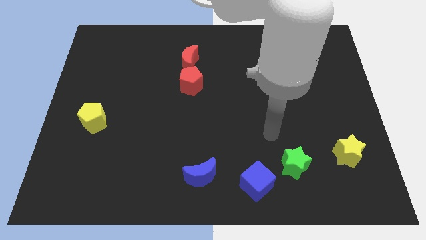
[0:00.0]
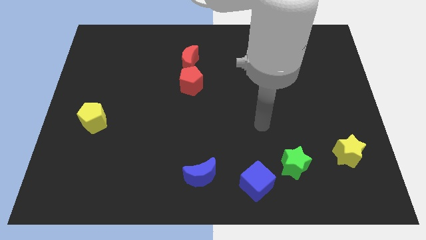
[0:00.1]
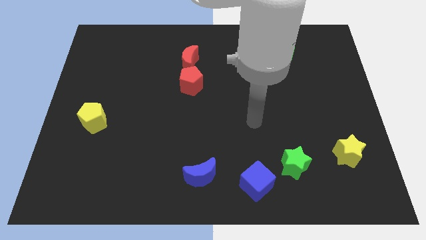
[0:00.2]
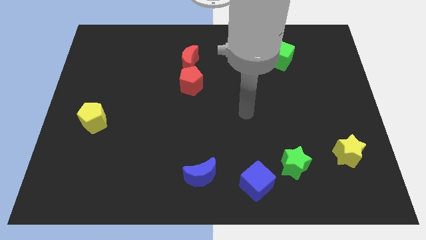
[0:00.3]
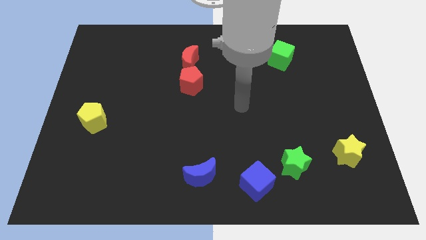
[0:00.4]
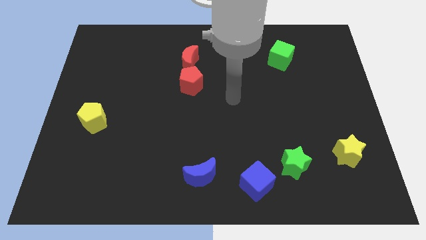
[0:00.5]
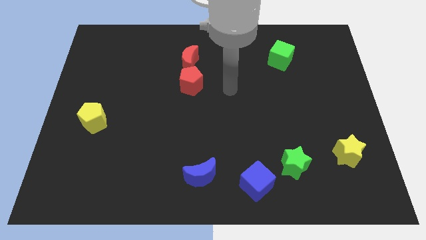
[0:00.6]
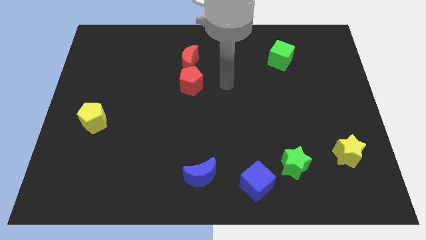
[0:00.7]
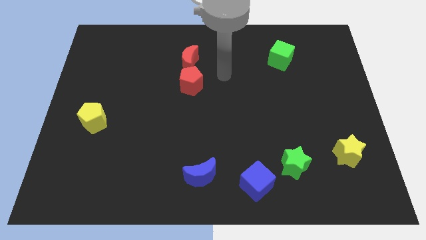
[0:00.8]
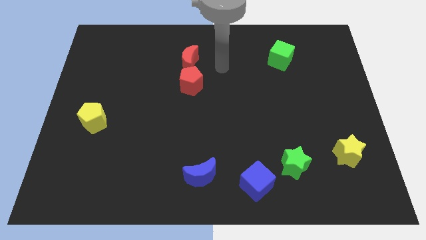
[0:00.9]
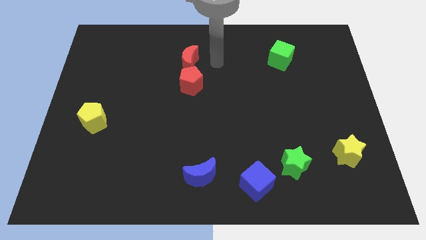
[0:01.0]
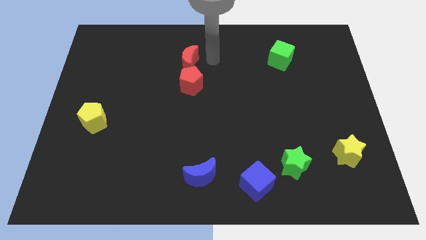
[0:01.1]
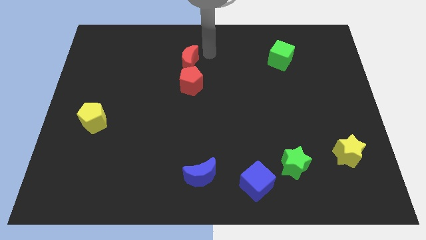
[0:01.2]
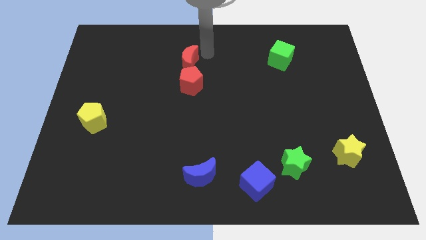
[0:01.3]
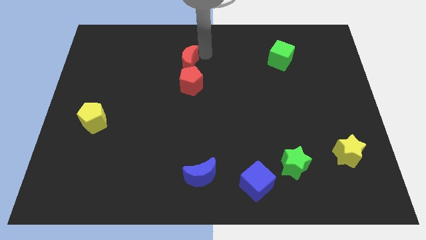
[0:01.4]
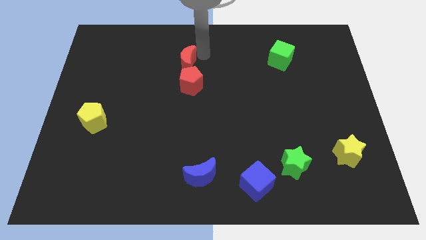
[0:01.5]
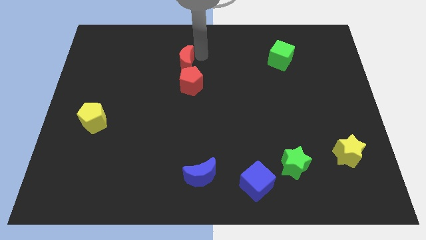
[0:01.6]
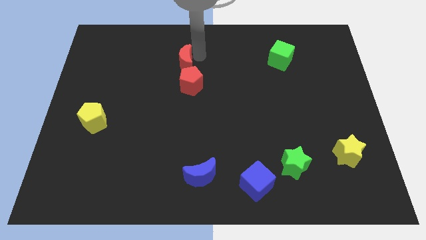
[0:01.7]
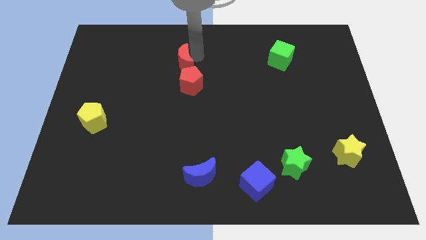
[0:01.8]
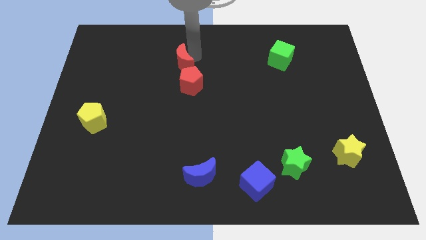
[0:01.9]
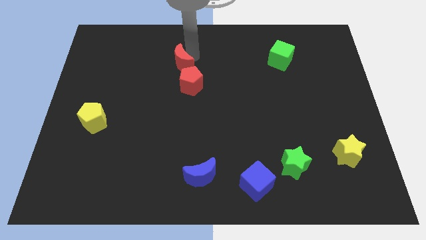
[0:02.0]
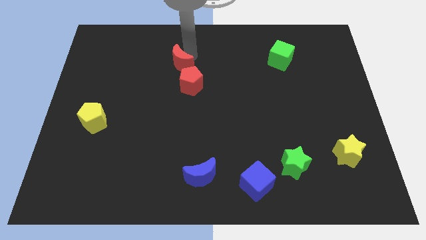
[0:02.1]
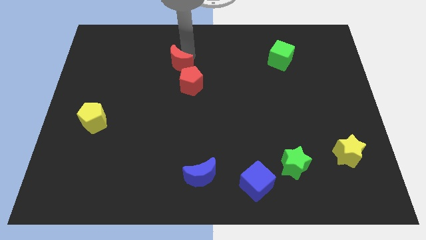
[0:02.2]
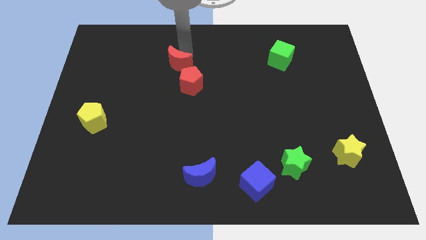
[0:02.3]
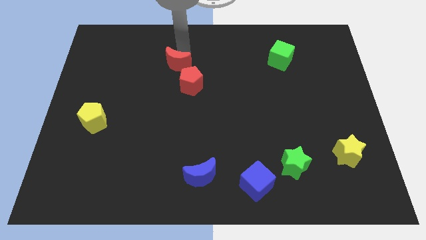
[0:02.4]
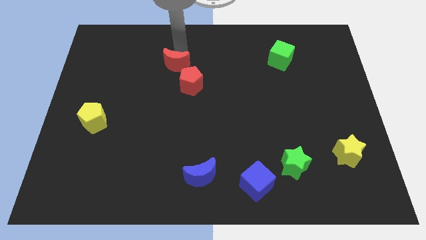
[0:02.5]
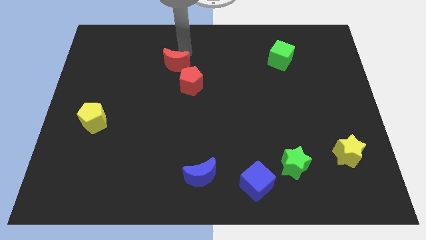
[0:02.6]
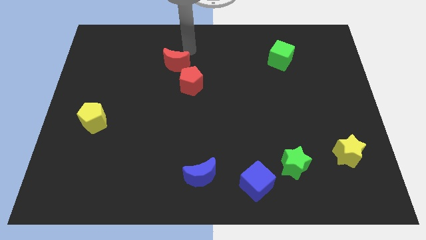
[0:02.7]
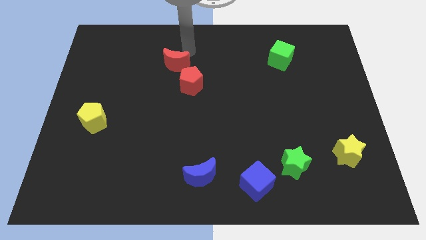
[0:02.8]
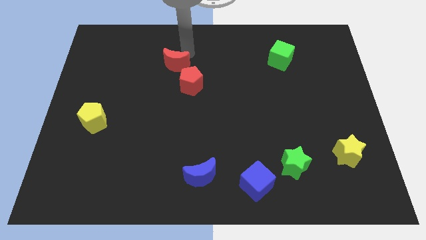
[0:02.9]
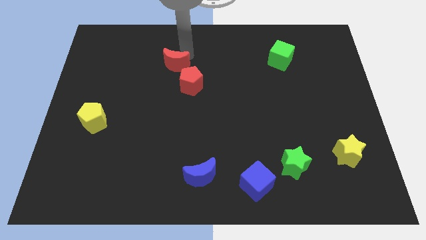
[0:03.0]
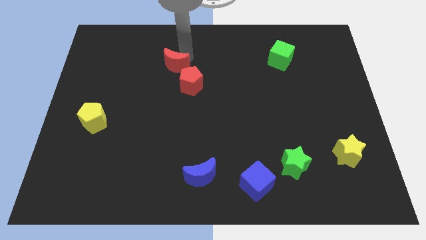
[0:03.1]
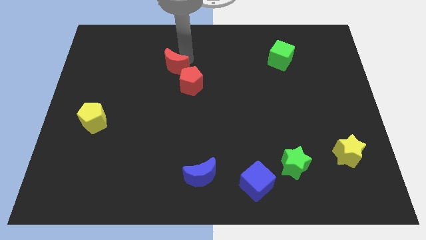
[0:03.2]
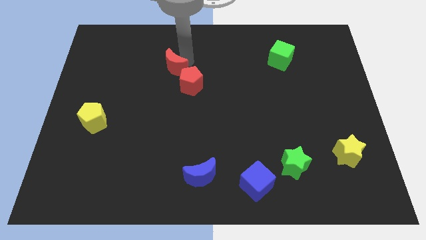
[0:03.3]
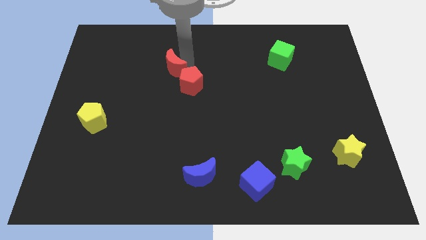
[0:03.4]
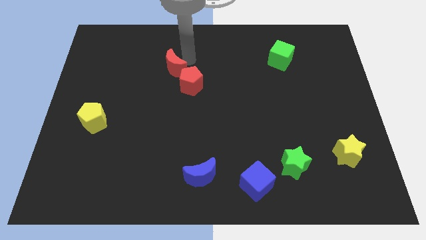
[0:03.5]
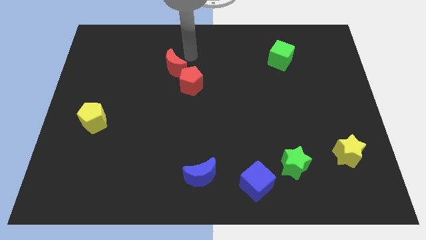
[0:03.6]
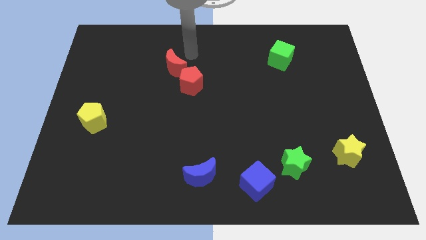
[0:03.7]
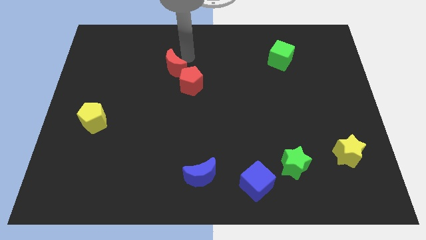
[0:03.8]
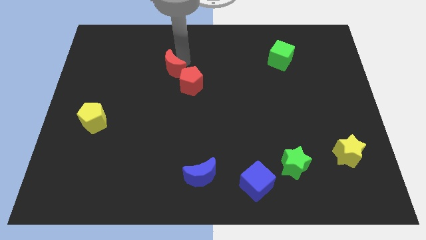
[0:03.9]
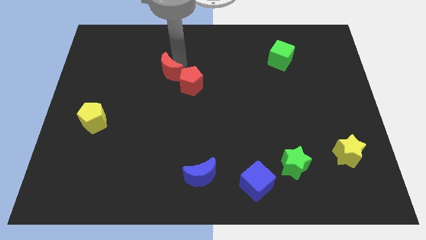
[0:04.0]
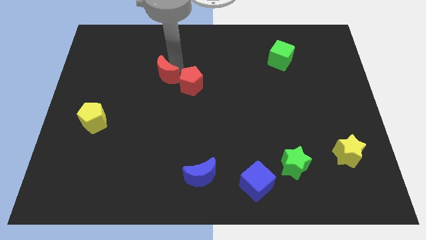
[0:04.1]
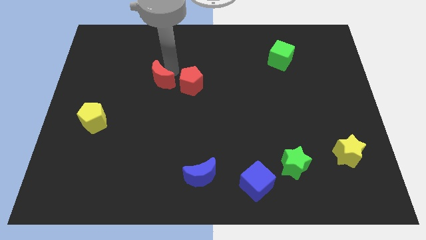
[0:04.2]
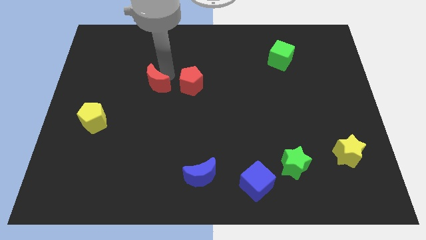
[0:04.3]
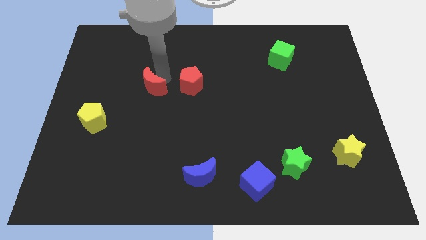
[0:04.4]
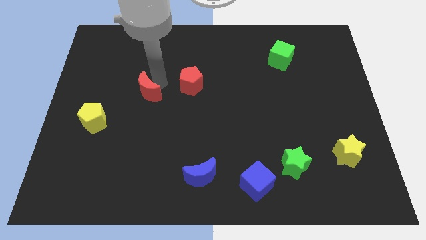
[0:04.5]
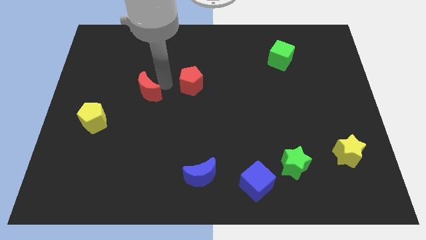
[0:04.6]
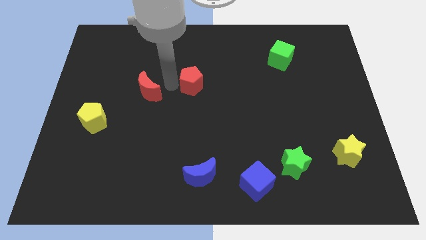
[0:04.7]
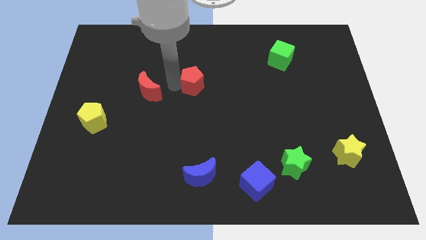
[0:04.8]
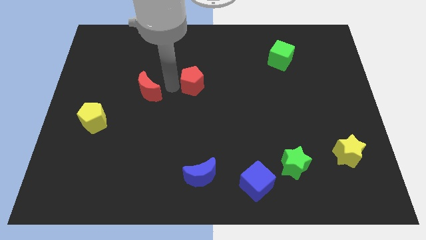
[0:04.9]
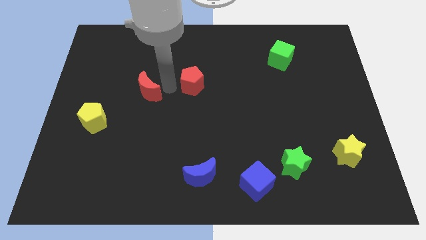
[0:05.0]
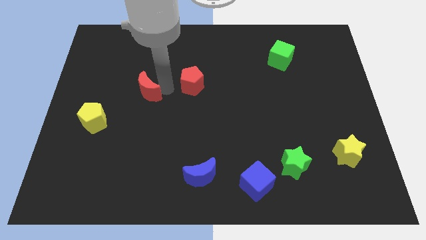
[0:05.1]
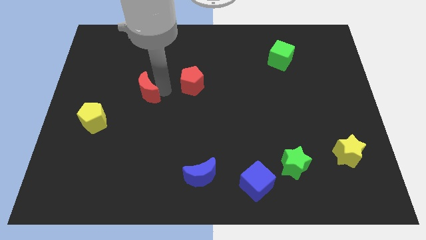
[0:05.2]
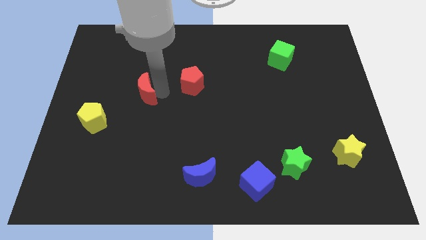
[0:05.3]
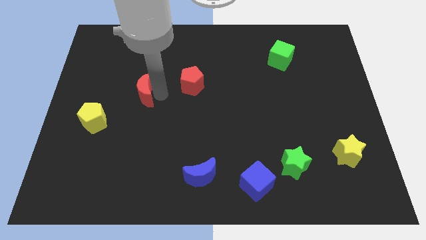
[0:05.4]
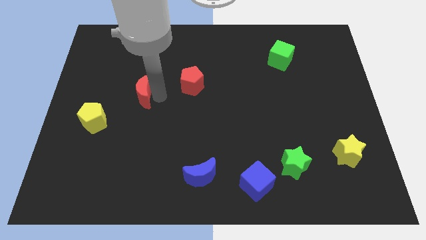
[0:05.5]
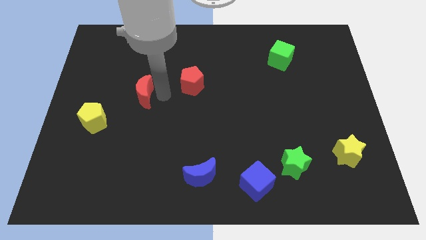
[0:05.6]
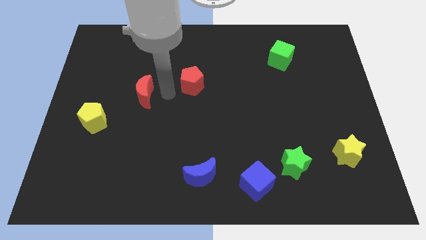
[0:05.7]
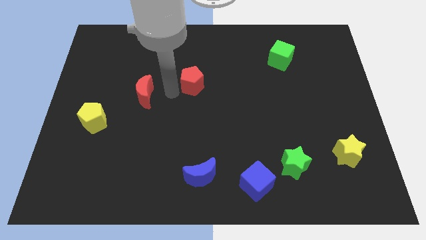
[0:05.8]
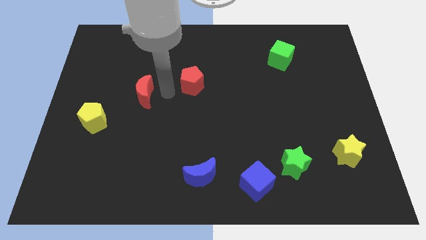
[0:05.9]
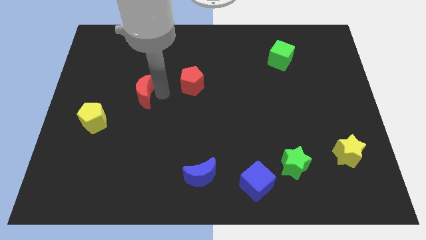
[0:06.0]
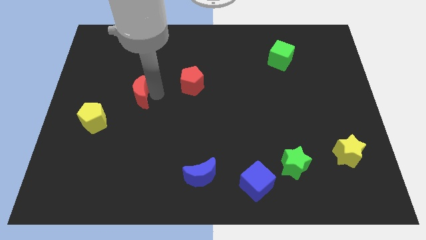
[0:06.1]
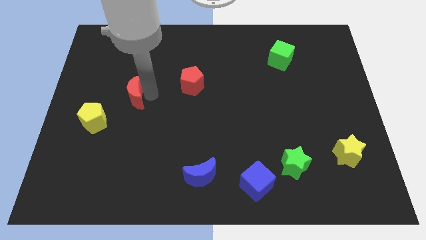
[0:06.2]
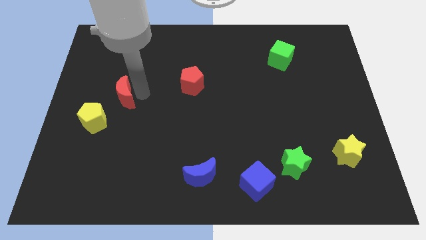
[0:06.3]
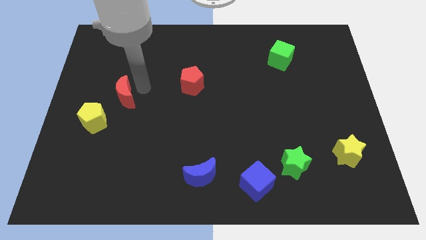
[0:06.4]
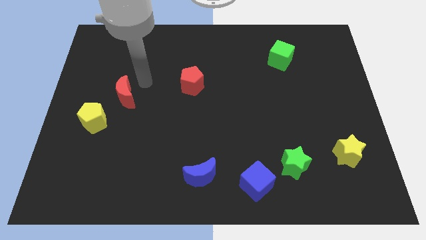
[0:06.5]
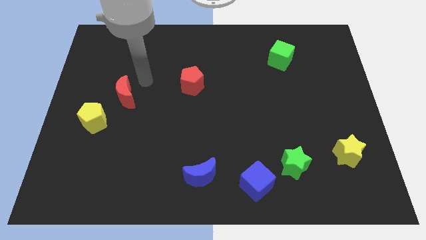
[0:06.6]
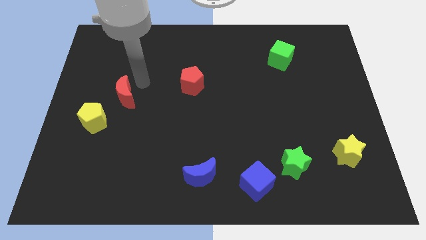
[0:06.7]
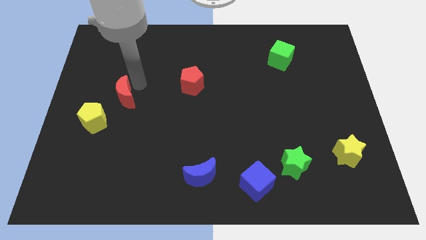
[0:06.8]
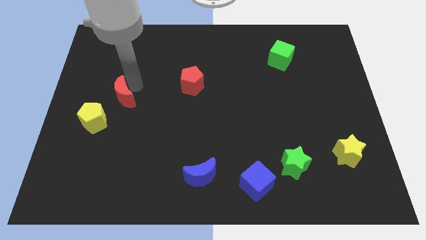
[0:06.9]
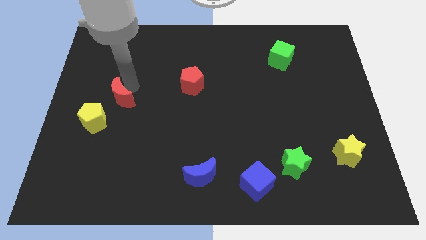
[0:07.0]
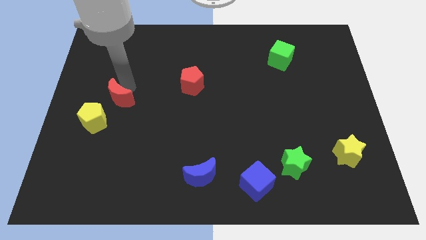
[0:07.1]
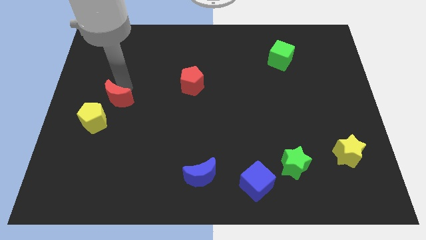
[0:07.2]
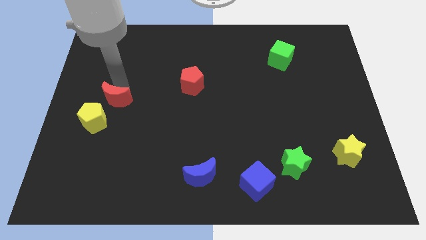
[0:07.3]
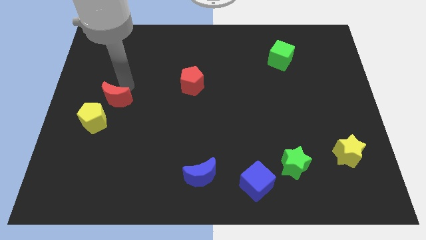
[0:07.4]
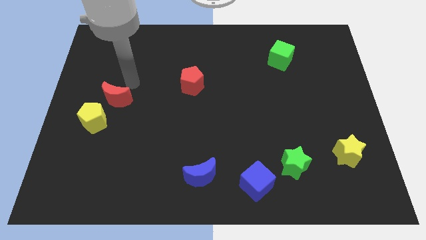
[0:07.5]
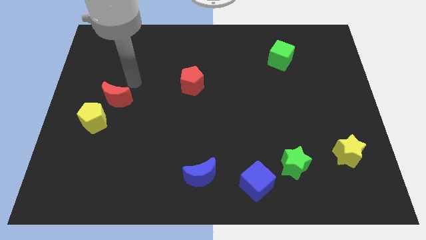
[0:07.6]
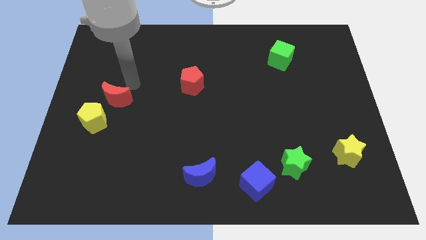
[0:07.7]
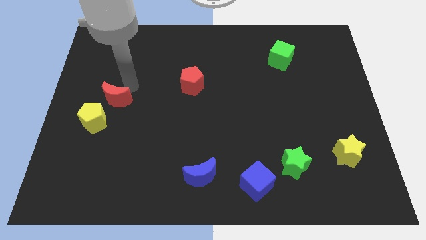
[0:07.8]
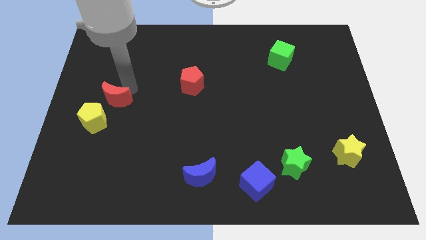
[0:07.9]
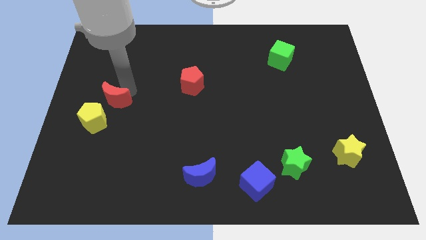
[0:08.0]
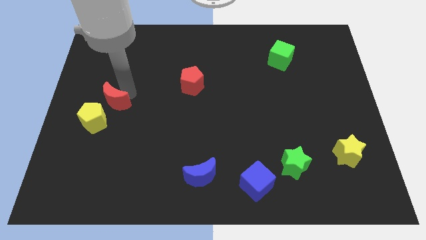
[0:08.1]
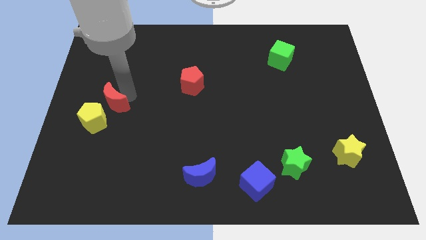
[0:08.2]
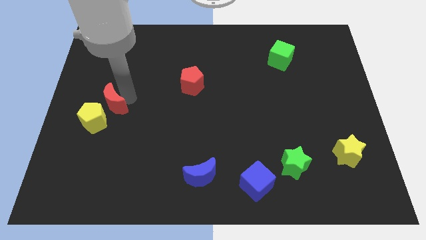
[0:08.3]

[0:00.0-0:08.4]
push the red moon towards the yellow pentagon
